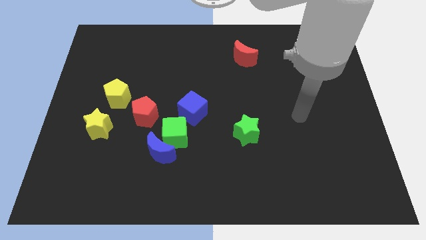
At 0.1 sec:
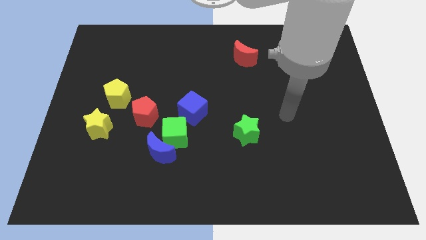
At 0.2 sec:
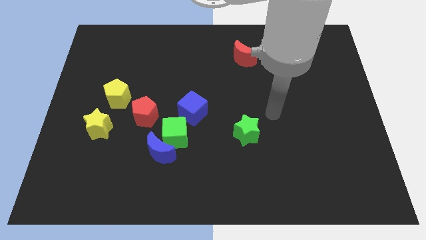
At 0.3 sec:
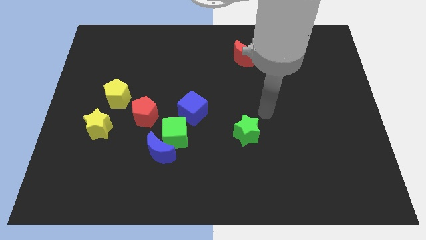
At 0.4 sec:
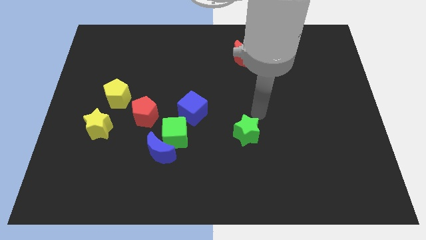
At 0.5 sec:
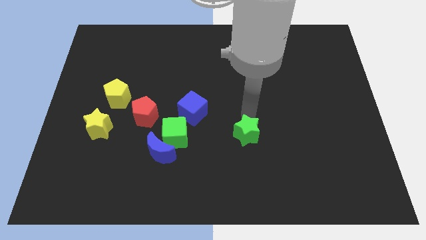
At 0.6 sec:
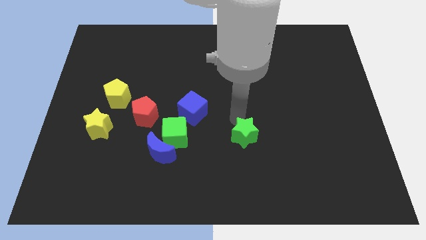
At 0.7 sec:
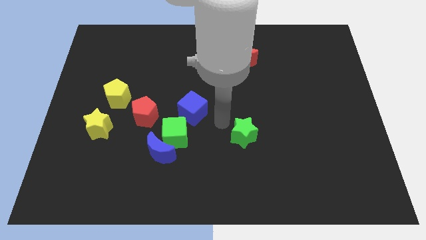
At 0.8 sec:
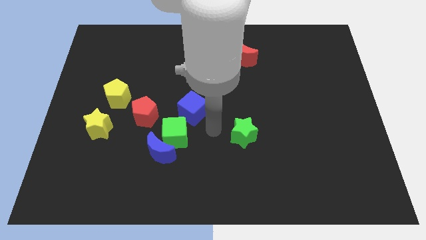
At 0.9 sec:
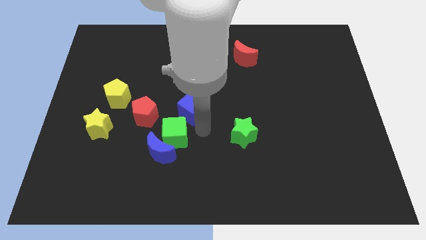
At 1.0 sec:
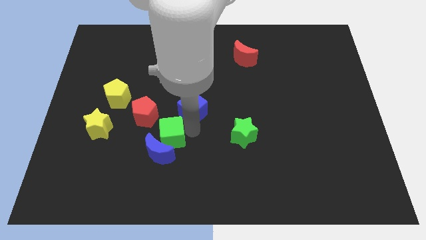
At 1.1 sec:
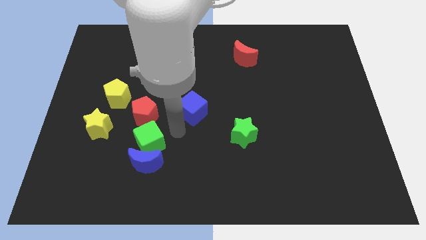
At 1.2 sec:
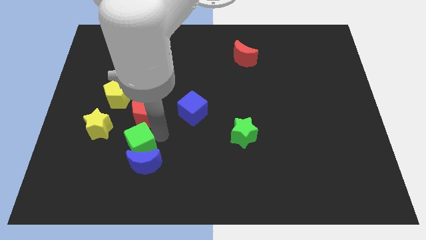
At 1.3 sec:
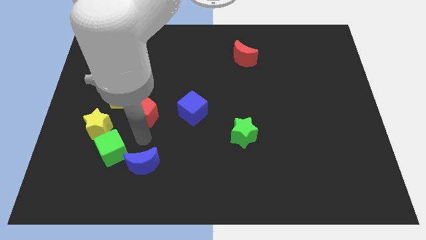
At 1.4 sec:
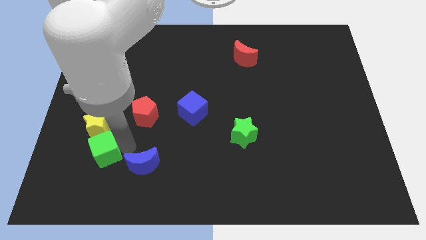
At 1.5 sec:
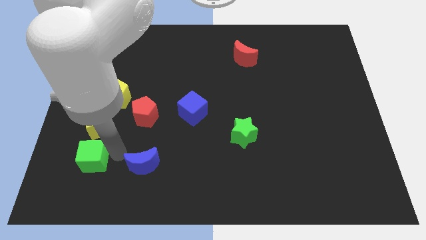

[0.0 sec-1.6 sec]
move the blue moon away from the green cube

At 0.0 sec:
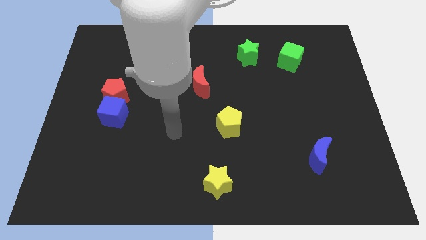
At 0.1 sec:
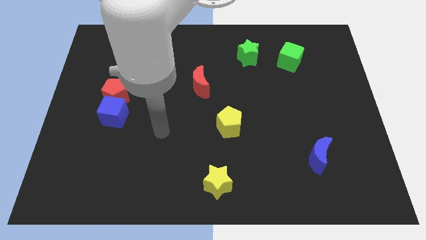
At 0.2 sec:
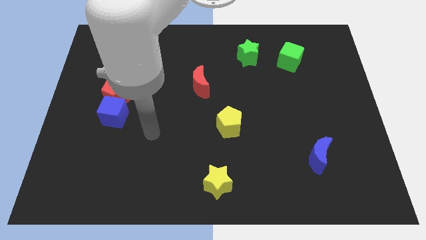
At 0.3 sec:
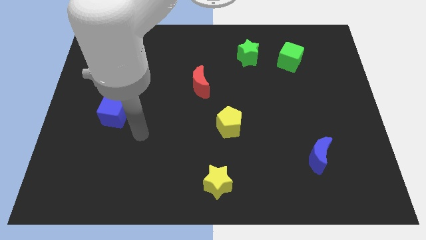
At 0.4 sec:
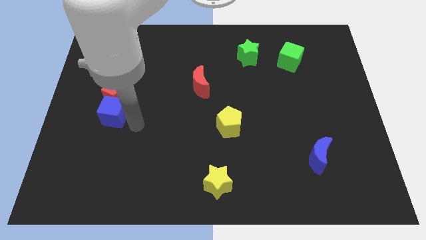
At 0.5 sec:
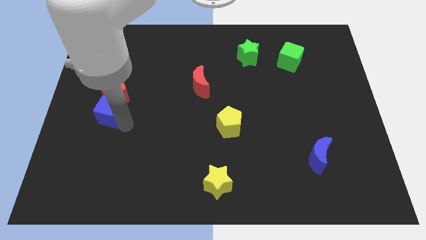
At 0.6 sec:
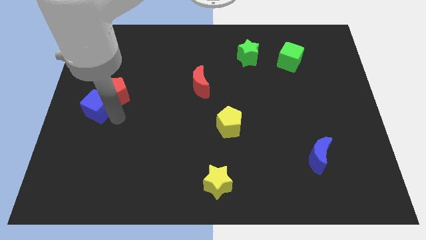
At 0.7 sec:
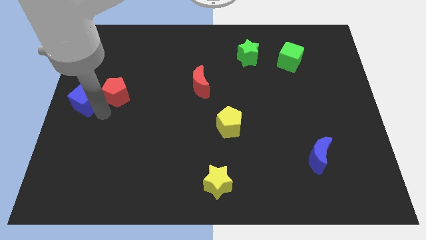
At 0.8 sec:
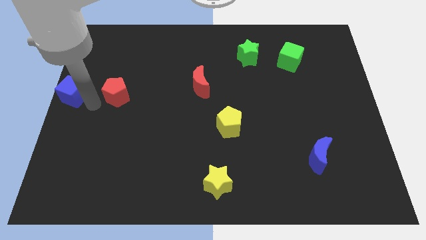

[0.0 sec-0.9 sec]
move the red pentagon away from the blue cube

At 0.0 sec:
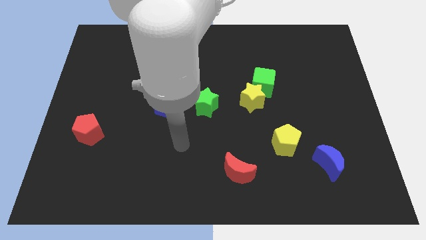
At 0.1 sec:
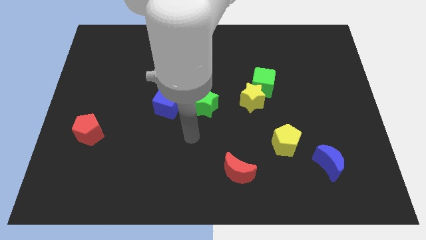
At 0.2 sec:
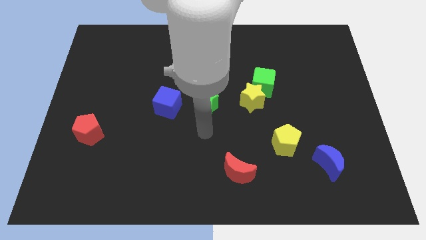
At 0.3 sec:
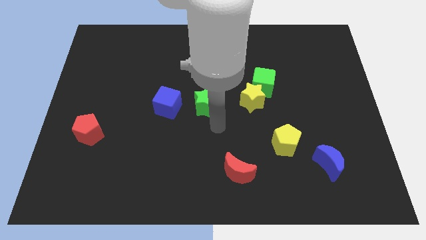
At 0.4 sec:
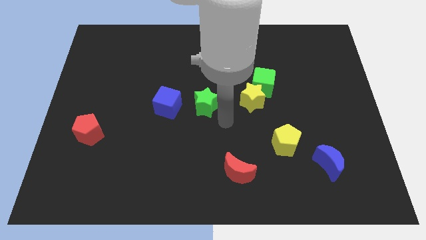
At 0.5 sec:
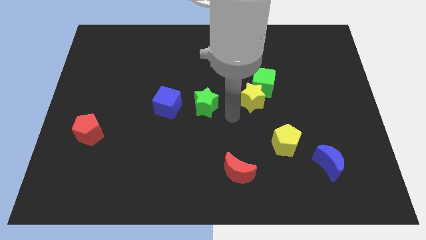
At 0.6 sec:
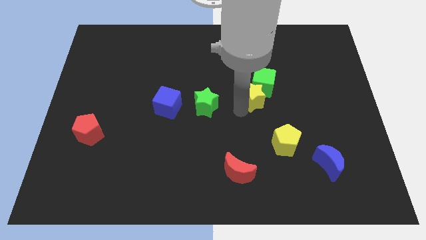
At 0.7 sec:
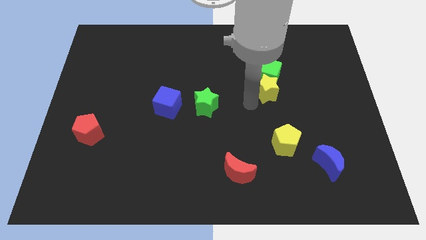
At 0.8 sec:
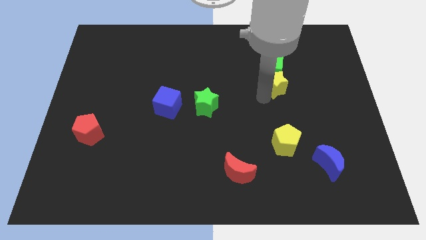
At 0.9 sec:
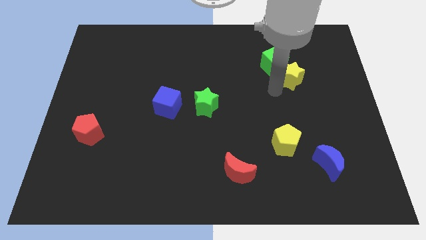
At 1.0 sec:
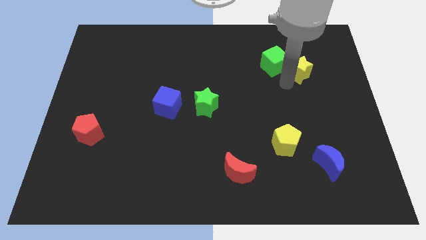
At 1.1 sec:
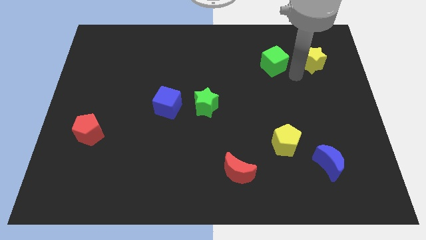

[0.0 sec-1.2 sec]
move the green cube away from the yellow star

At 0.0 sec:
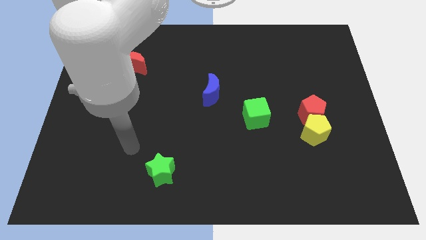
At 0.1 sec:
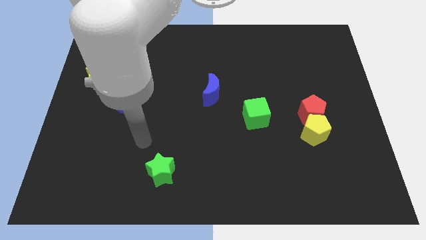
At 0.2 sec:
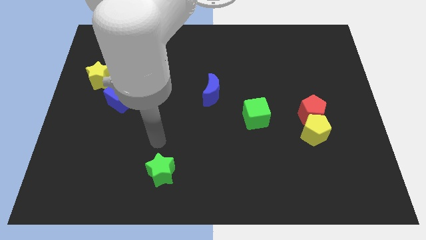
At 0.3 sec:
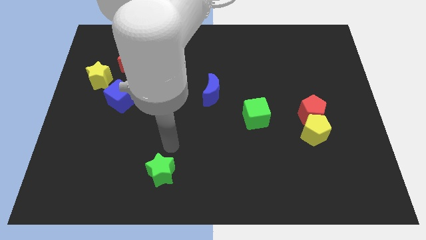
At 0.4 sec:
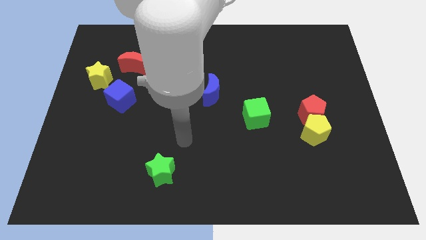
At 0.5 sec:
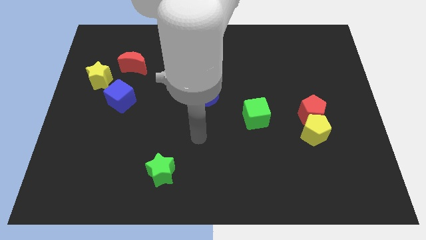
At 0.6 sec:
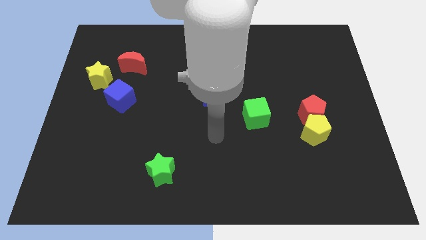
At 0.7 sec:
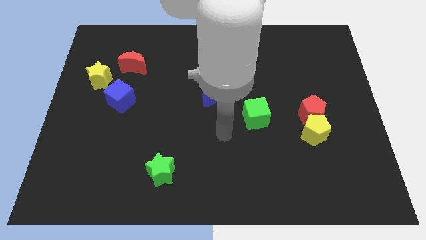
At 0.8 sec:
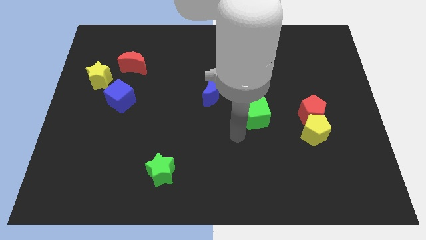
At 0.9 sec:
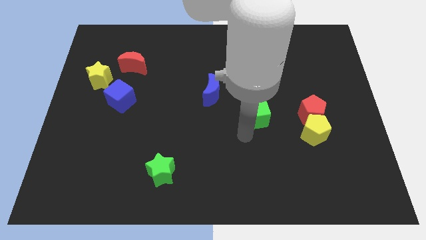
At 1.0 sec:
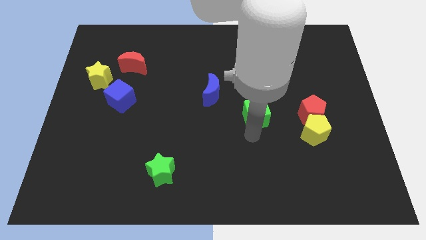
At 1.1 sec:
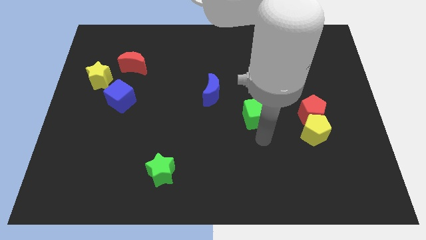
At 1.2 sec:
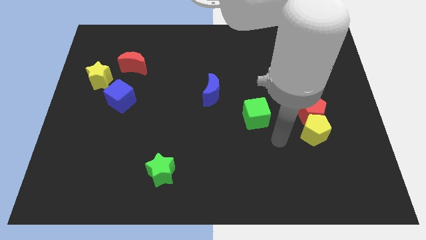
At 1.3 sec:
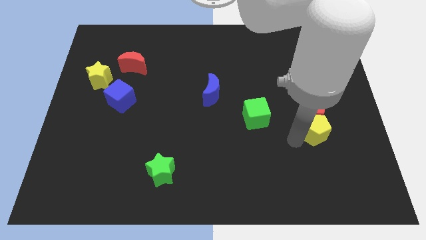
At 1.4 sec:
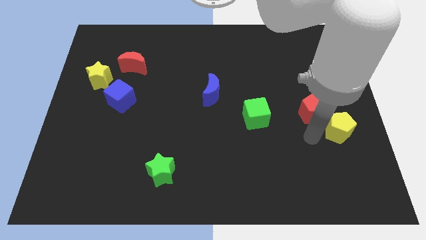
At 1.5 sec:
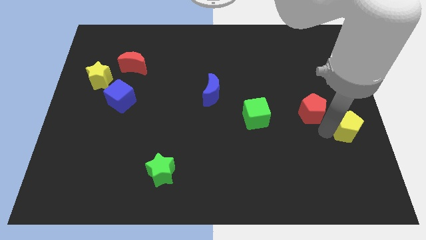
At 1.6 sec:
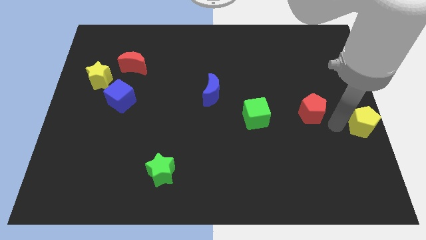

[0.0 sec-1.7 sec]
separate the red pentagon from the yellow pentagon

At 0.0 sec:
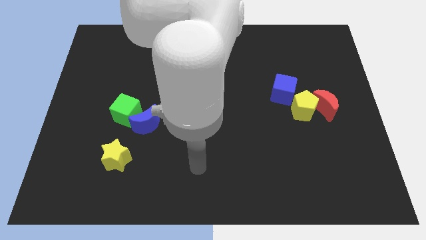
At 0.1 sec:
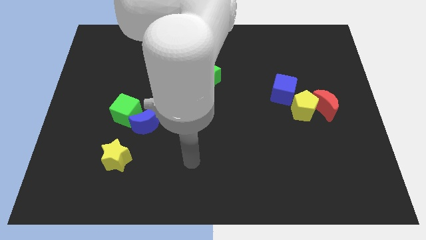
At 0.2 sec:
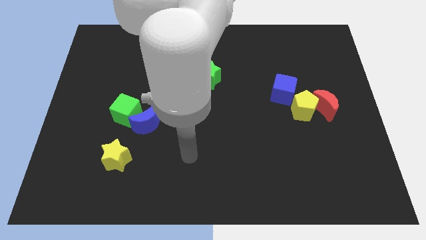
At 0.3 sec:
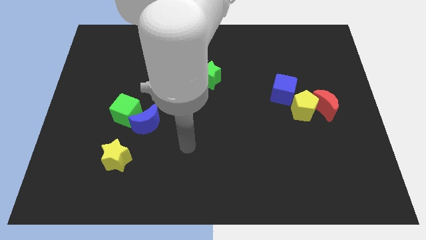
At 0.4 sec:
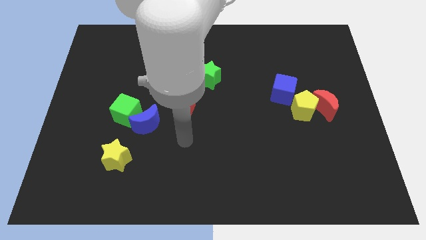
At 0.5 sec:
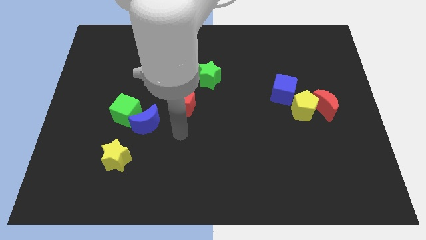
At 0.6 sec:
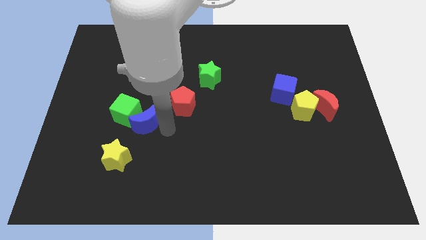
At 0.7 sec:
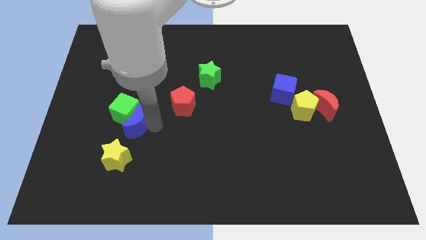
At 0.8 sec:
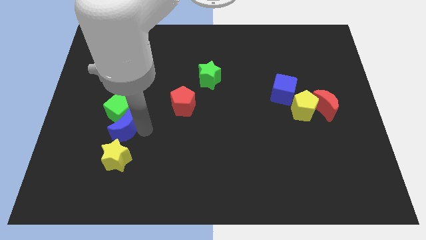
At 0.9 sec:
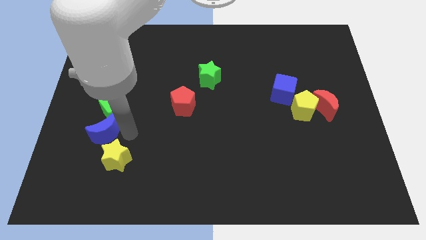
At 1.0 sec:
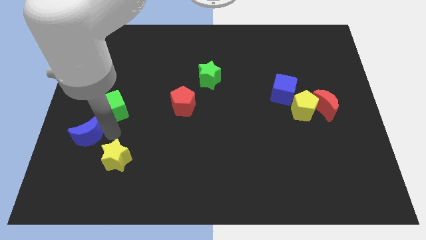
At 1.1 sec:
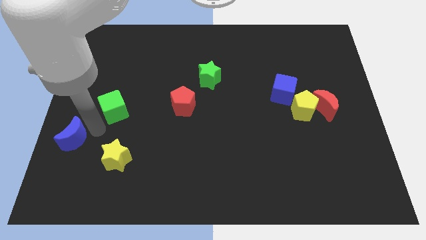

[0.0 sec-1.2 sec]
separate the green cube from the blue moon

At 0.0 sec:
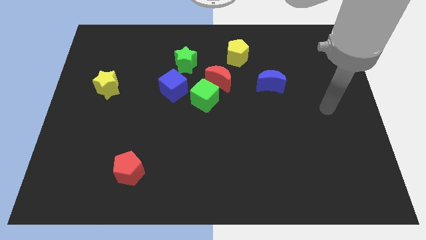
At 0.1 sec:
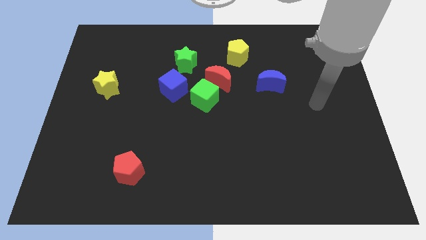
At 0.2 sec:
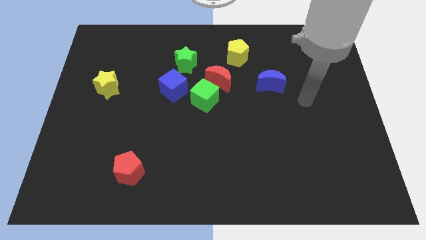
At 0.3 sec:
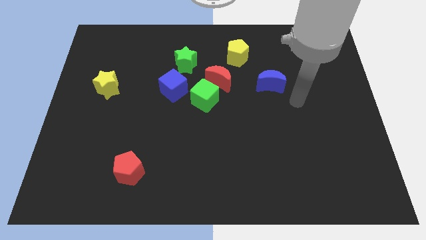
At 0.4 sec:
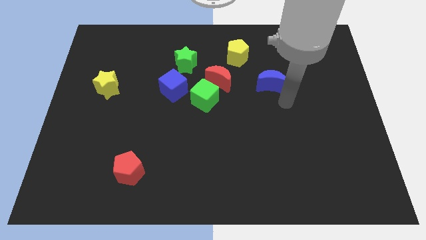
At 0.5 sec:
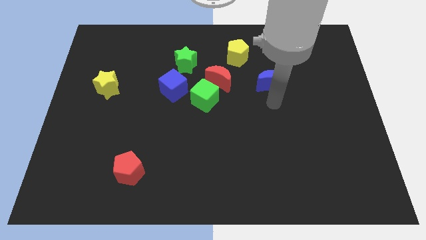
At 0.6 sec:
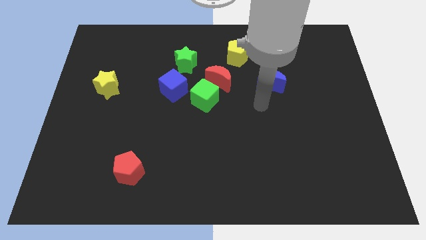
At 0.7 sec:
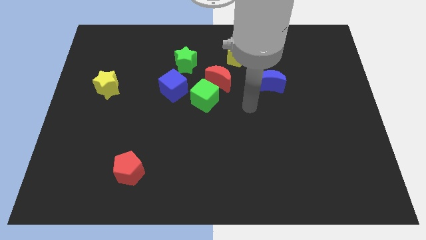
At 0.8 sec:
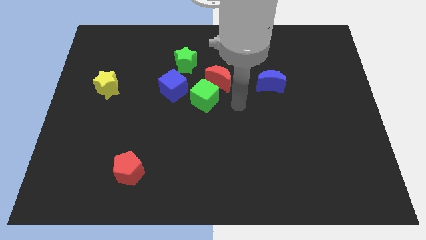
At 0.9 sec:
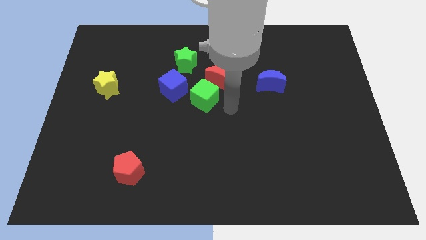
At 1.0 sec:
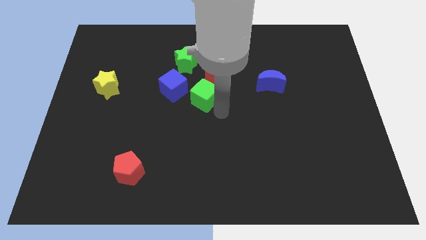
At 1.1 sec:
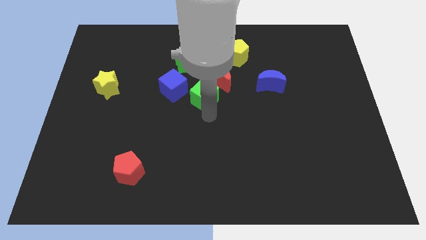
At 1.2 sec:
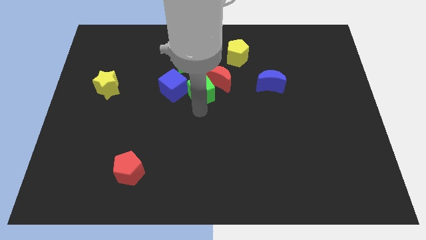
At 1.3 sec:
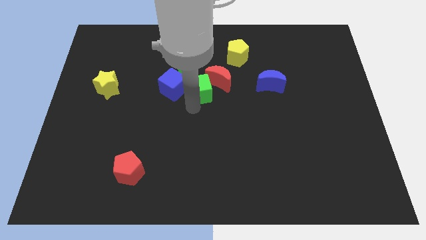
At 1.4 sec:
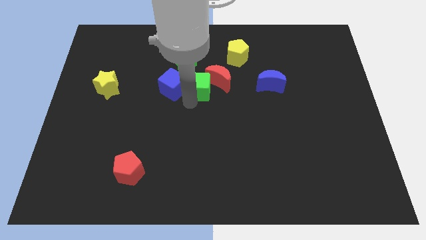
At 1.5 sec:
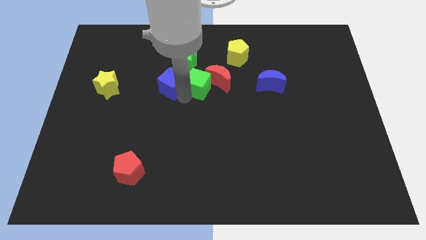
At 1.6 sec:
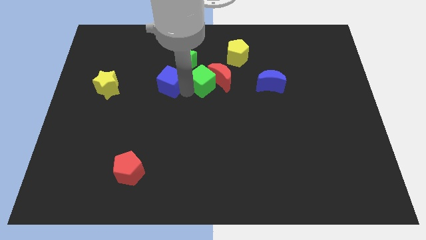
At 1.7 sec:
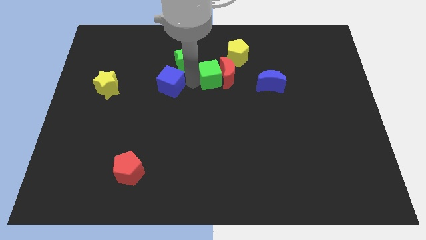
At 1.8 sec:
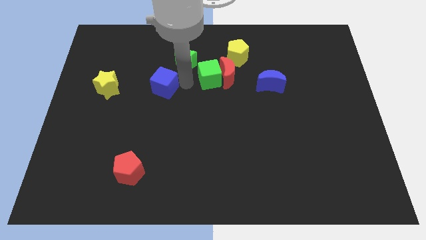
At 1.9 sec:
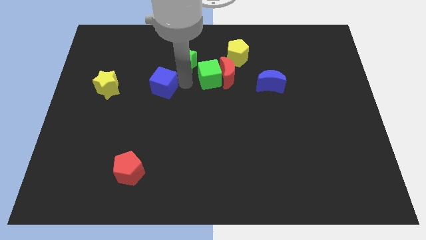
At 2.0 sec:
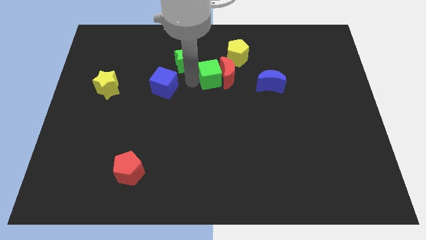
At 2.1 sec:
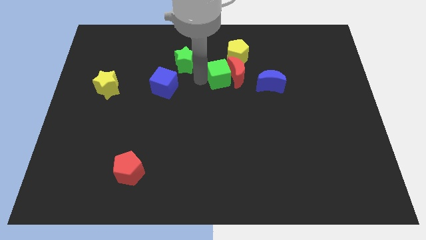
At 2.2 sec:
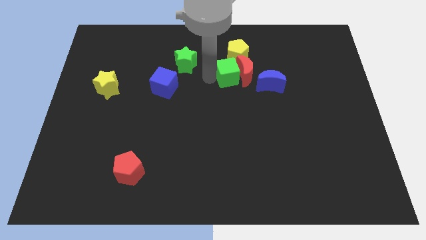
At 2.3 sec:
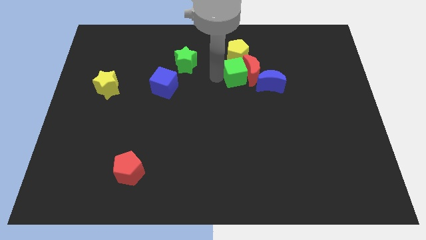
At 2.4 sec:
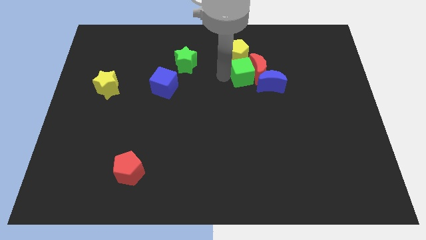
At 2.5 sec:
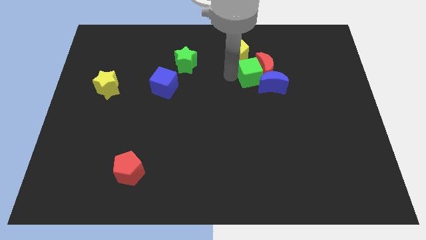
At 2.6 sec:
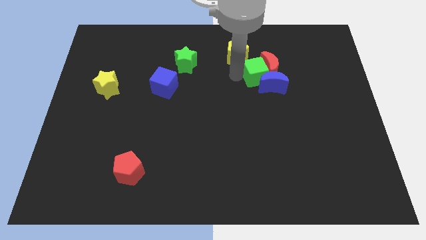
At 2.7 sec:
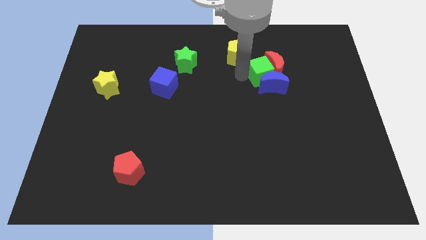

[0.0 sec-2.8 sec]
move the green cube away from the red moon and blue cube

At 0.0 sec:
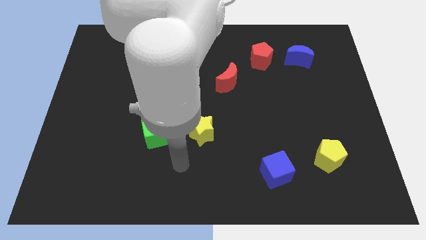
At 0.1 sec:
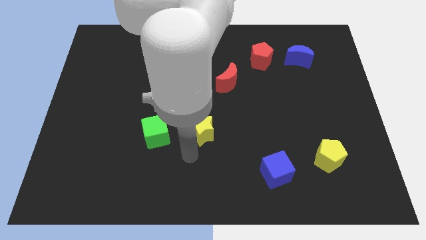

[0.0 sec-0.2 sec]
move the red pentagon away from the blue moon
